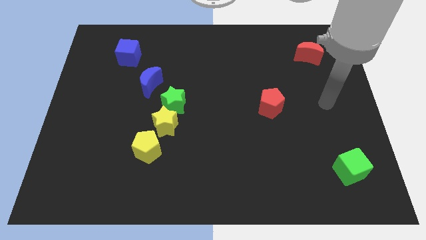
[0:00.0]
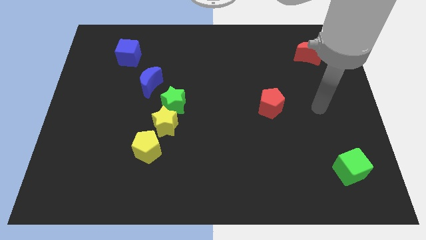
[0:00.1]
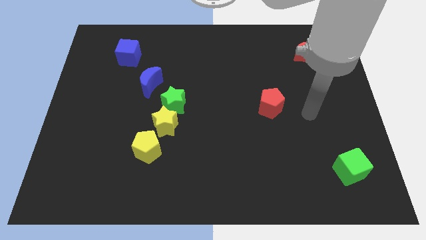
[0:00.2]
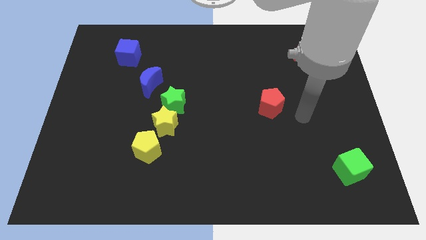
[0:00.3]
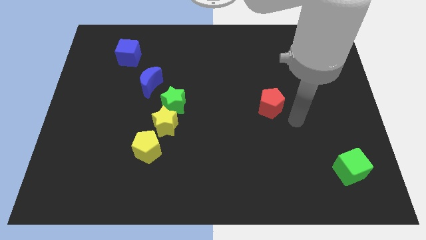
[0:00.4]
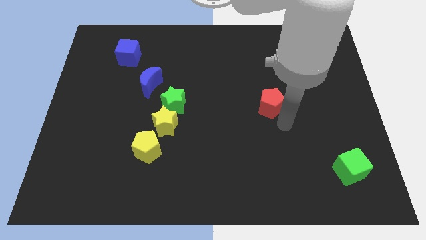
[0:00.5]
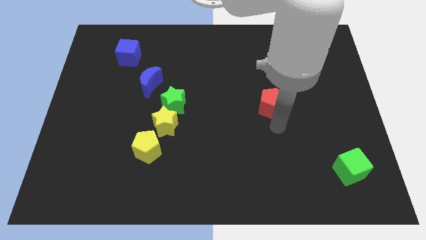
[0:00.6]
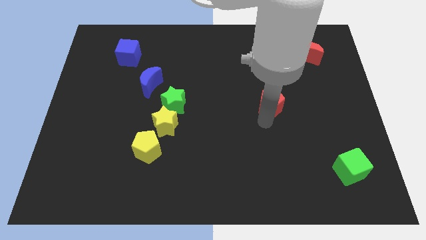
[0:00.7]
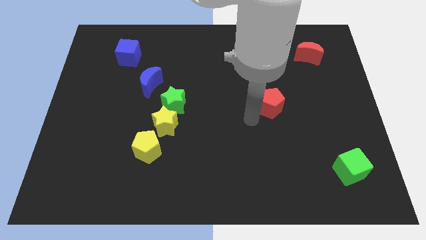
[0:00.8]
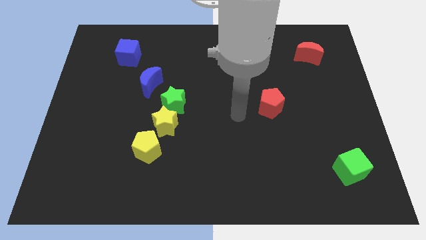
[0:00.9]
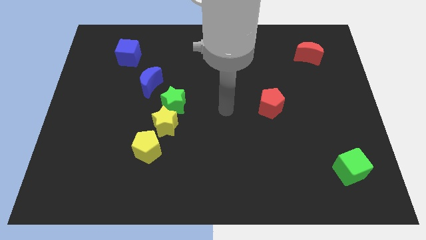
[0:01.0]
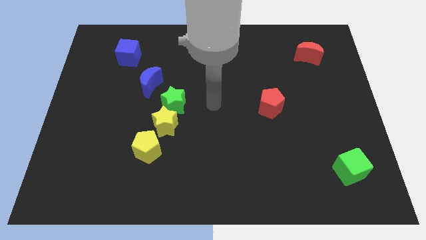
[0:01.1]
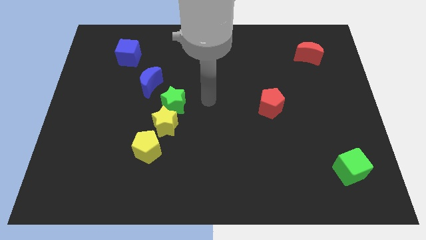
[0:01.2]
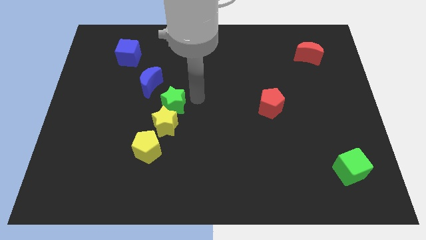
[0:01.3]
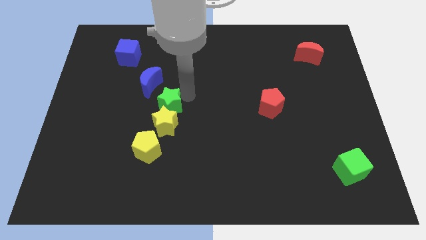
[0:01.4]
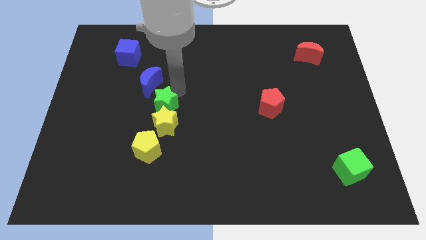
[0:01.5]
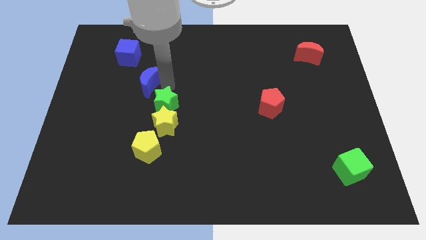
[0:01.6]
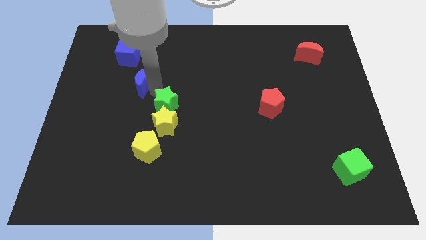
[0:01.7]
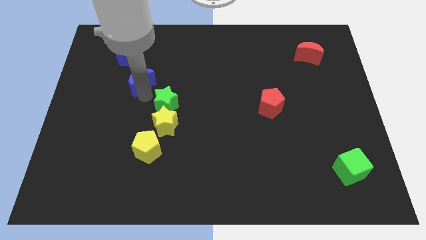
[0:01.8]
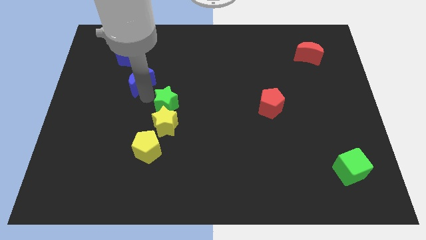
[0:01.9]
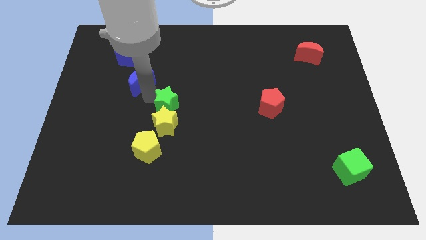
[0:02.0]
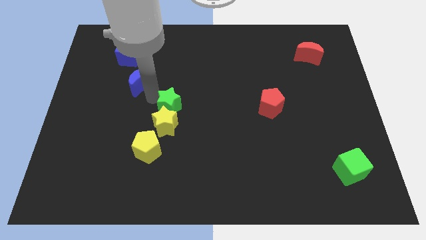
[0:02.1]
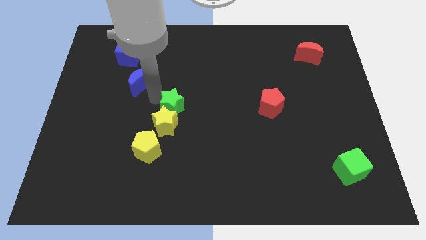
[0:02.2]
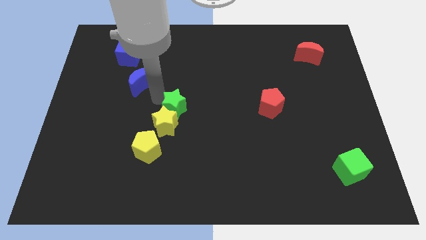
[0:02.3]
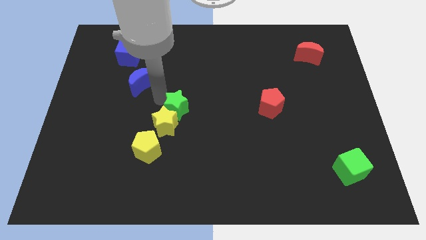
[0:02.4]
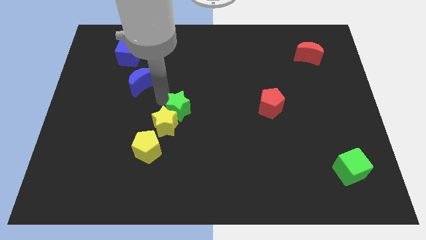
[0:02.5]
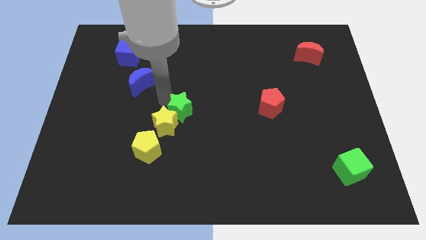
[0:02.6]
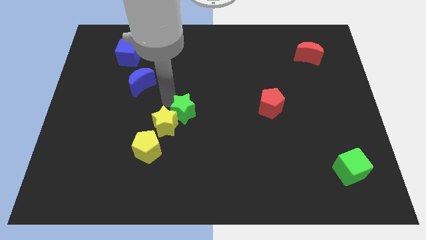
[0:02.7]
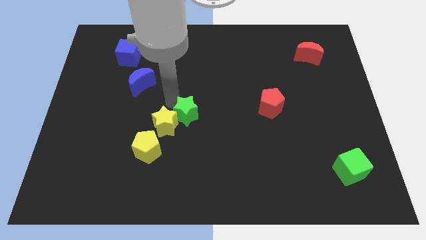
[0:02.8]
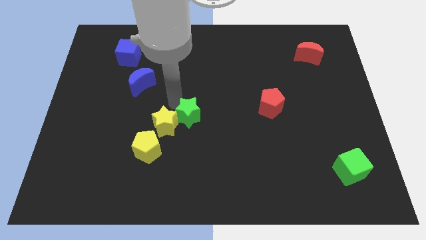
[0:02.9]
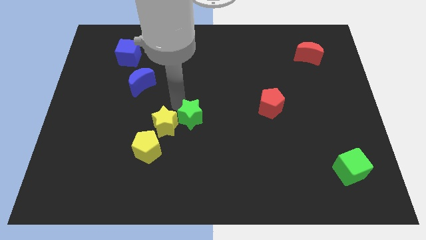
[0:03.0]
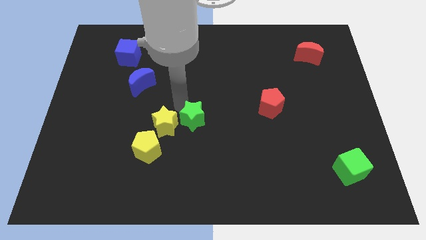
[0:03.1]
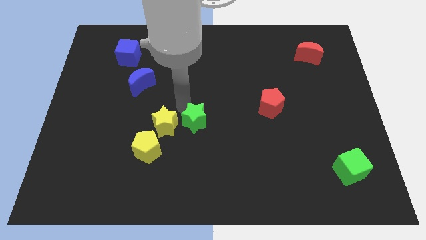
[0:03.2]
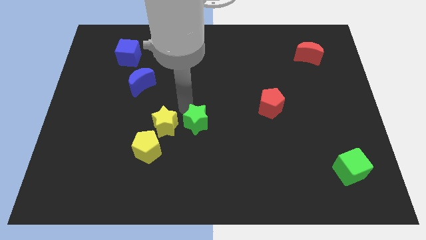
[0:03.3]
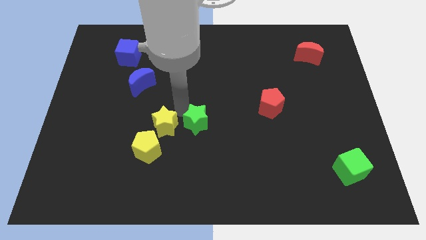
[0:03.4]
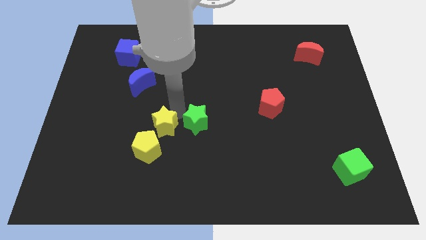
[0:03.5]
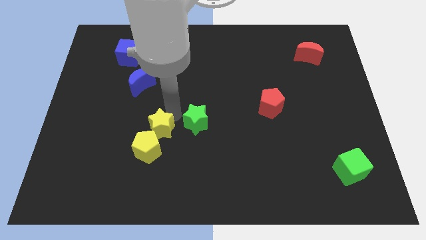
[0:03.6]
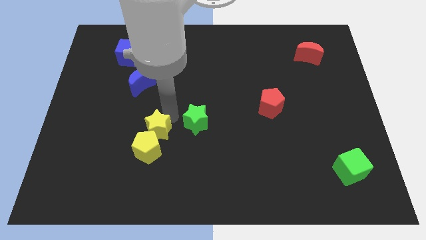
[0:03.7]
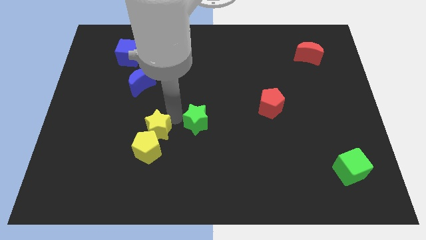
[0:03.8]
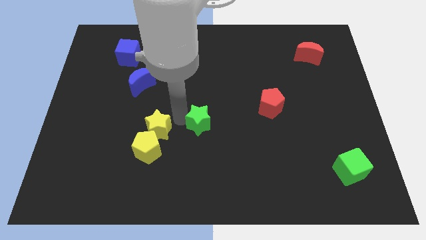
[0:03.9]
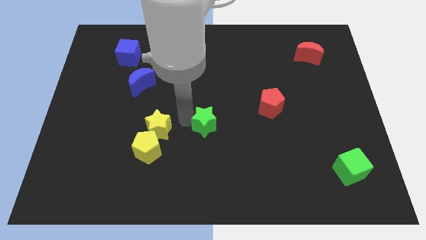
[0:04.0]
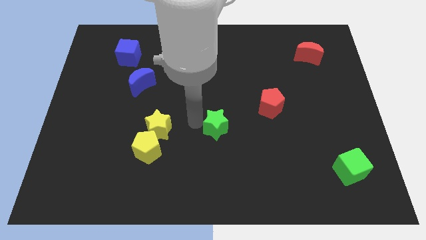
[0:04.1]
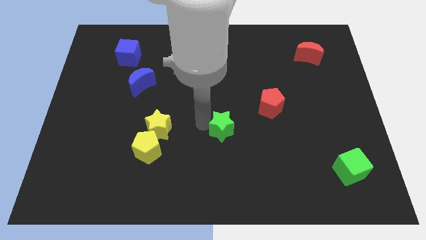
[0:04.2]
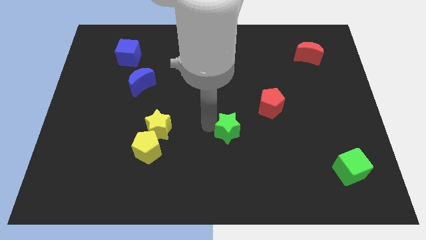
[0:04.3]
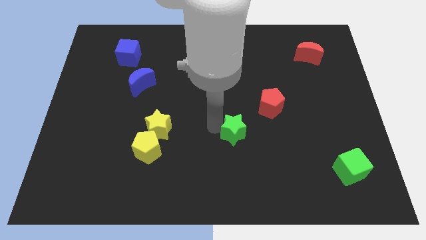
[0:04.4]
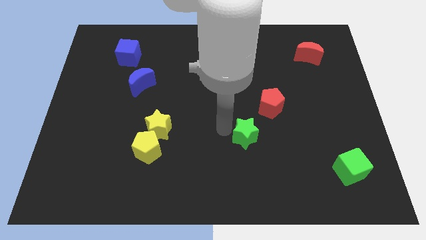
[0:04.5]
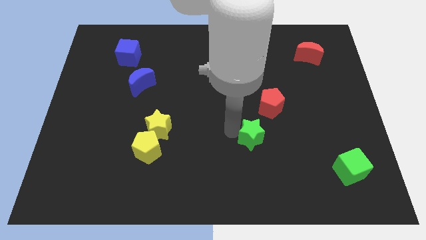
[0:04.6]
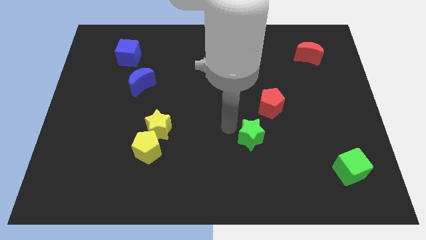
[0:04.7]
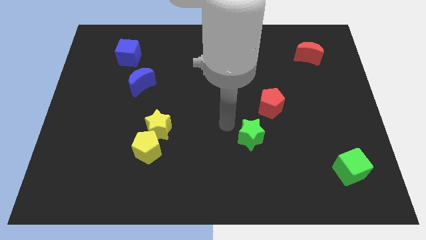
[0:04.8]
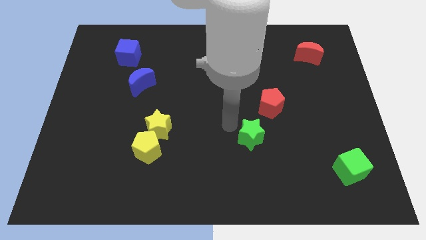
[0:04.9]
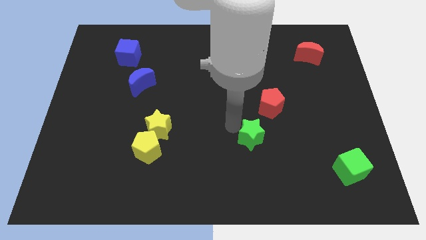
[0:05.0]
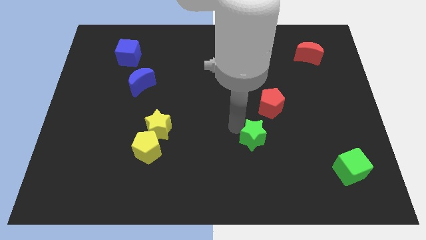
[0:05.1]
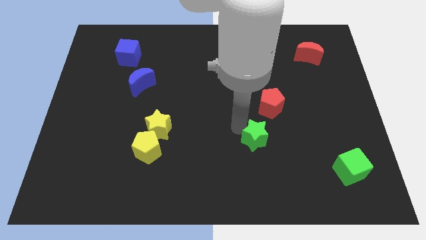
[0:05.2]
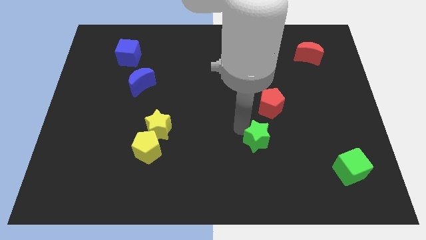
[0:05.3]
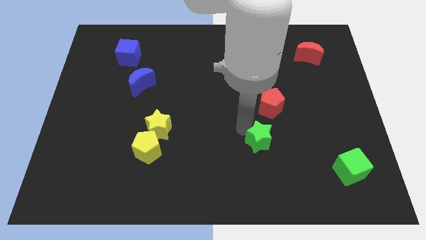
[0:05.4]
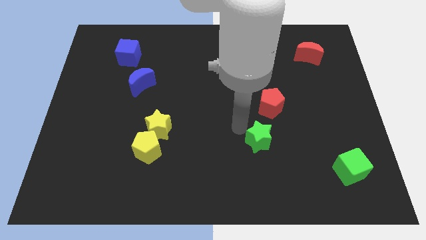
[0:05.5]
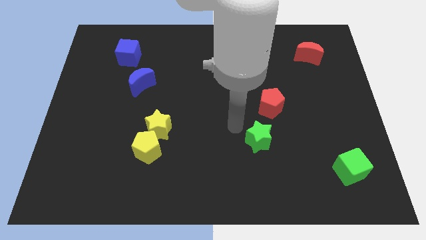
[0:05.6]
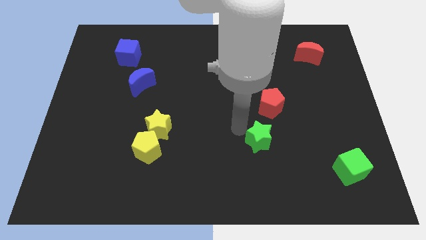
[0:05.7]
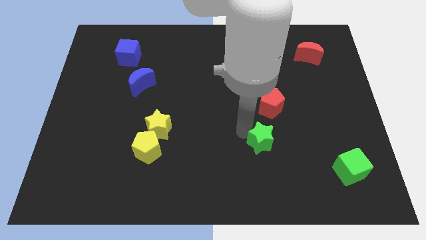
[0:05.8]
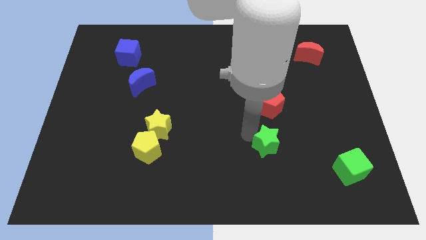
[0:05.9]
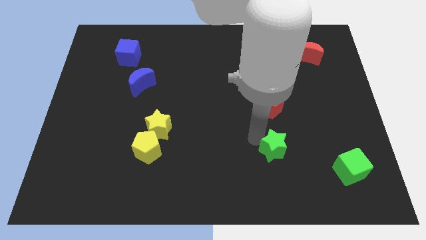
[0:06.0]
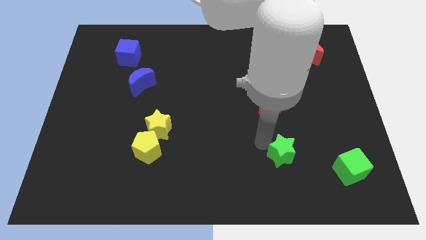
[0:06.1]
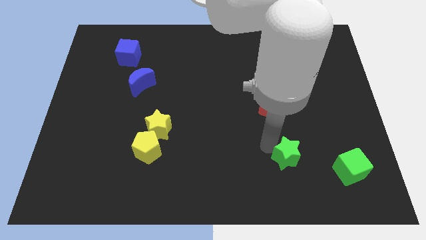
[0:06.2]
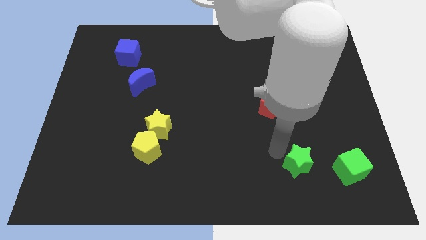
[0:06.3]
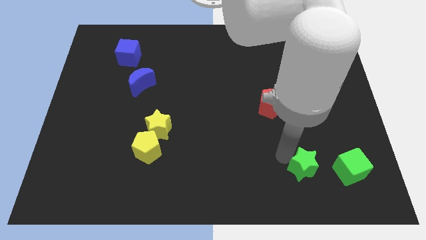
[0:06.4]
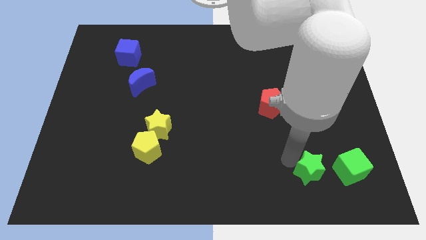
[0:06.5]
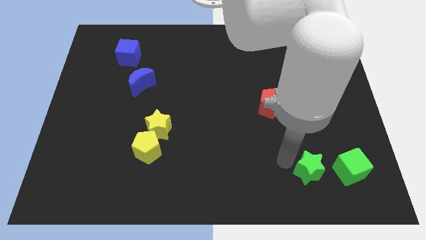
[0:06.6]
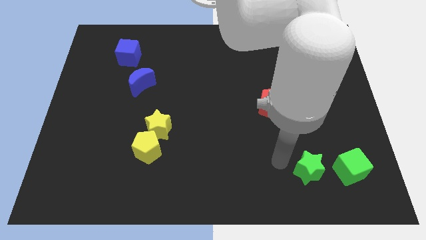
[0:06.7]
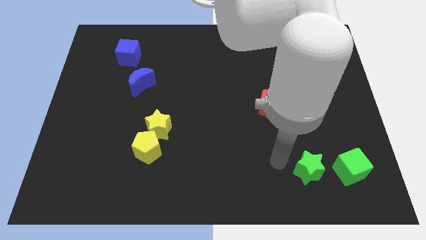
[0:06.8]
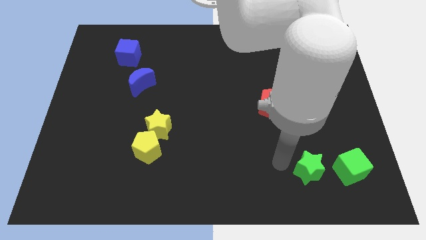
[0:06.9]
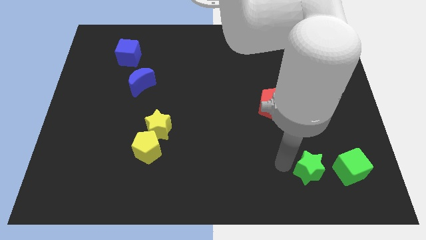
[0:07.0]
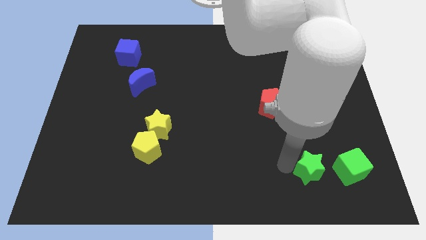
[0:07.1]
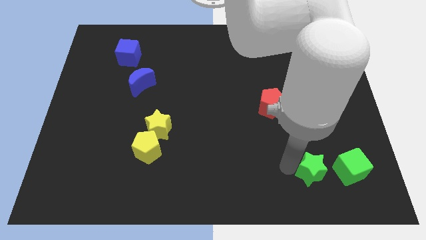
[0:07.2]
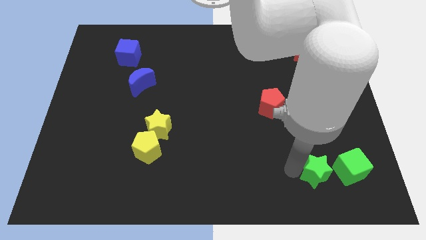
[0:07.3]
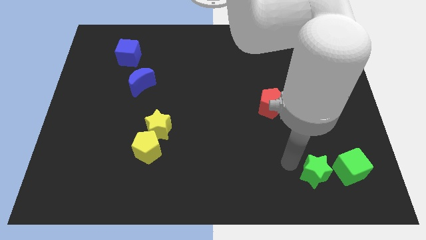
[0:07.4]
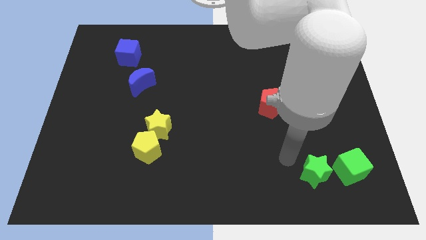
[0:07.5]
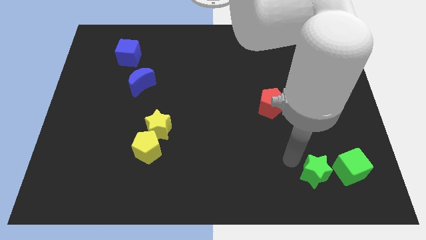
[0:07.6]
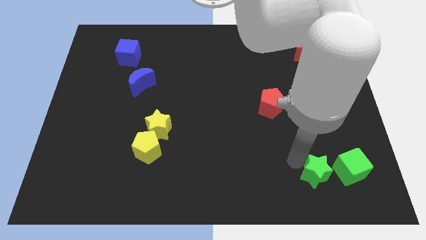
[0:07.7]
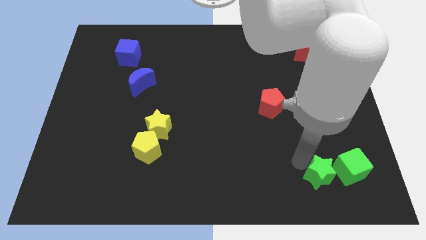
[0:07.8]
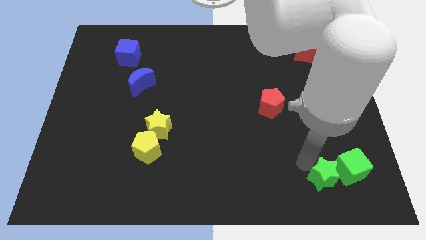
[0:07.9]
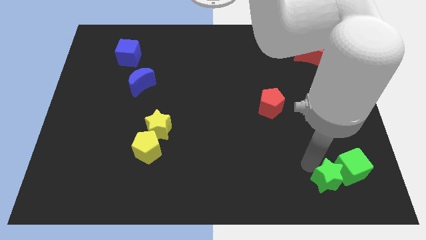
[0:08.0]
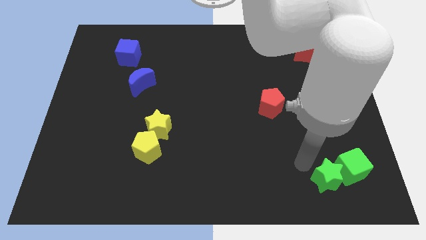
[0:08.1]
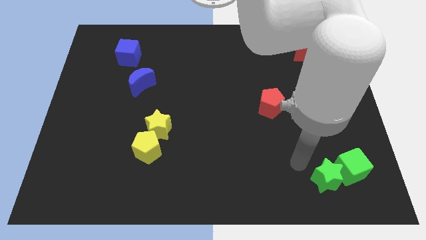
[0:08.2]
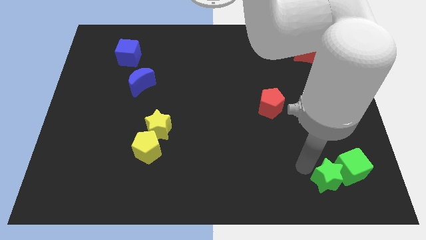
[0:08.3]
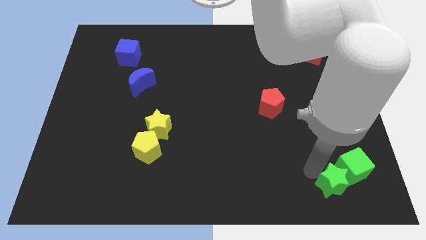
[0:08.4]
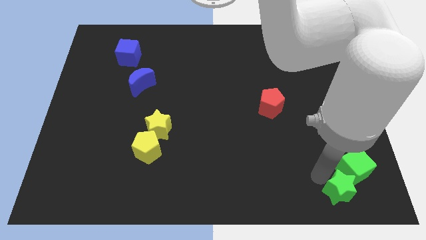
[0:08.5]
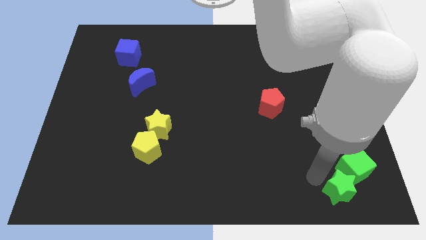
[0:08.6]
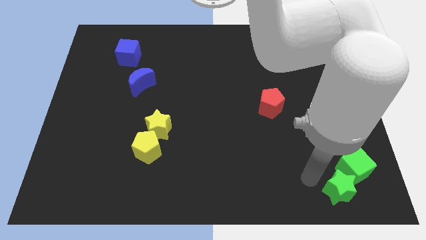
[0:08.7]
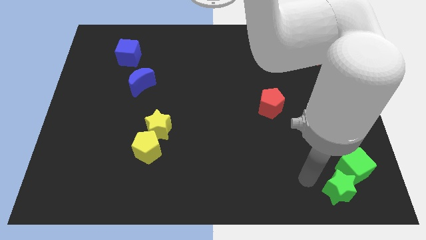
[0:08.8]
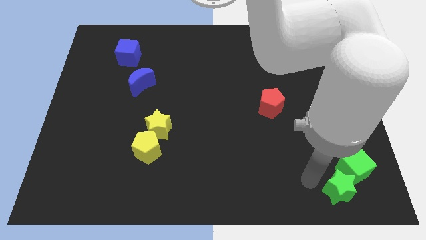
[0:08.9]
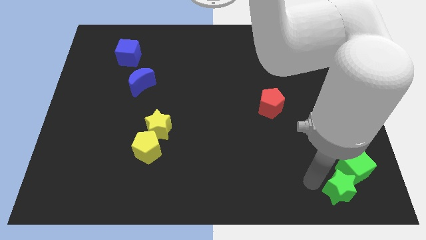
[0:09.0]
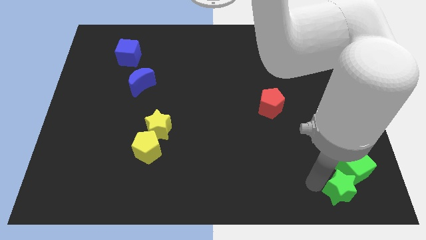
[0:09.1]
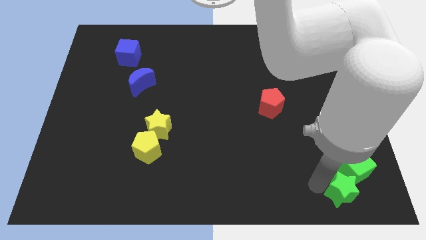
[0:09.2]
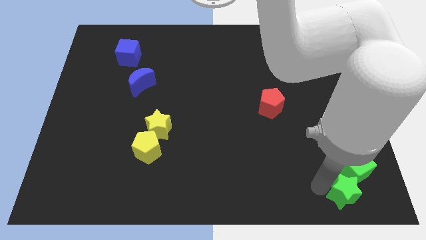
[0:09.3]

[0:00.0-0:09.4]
push the green star to the bottom right
